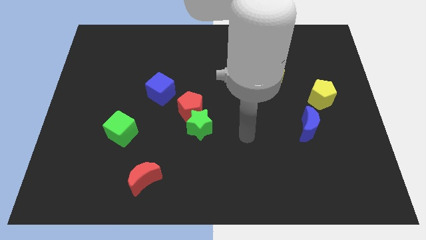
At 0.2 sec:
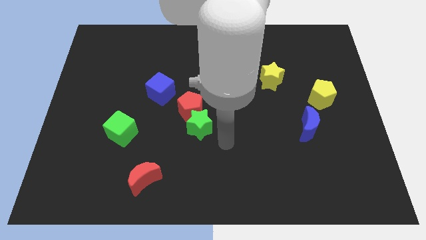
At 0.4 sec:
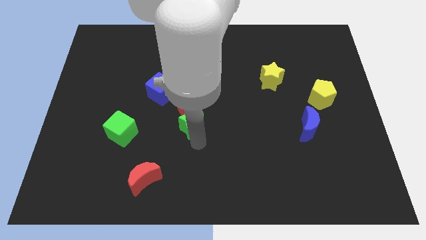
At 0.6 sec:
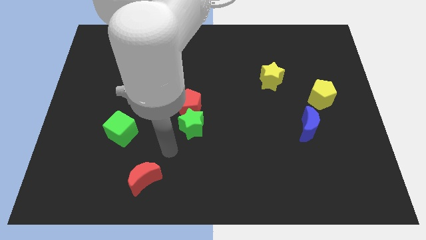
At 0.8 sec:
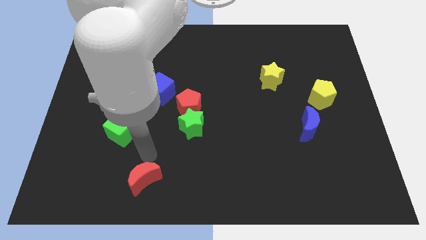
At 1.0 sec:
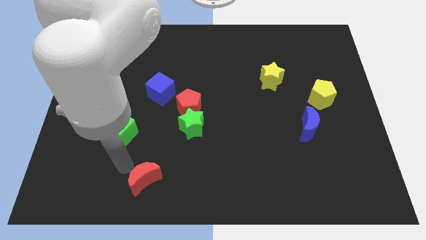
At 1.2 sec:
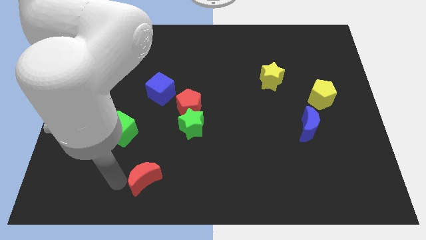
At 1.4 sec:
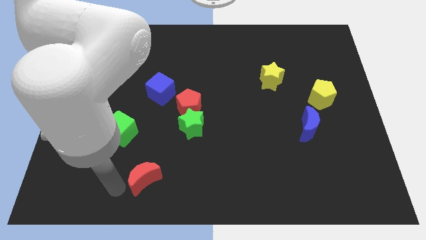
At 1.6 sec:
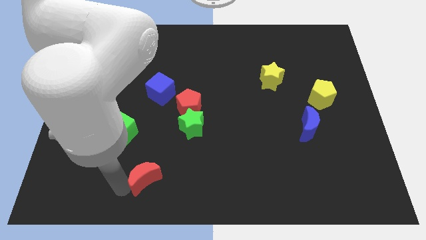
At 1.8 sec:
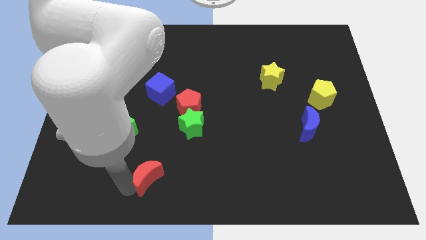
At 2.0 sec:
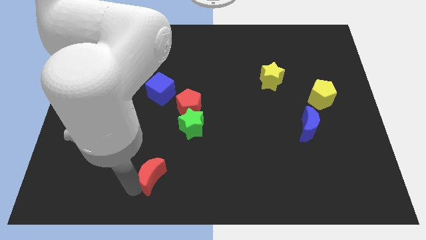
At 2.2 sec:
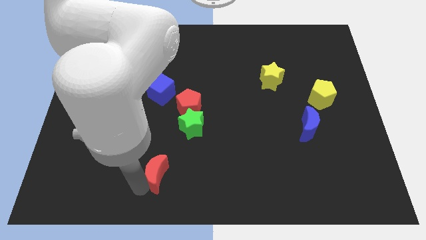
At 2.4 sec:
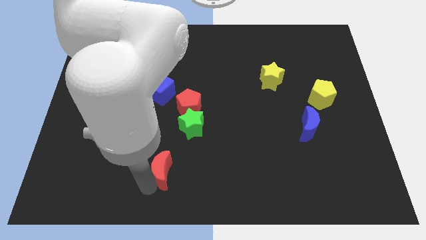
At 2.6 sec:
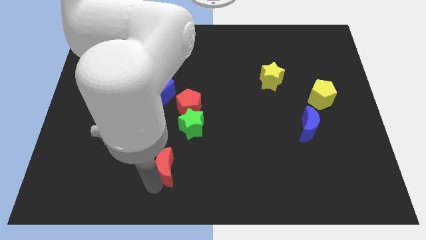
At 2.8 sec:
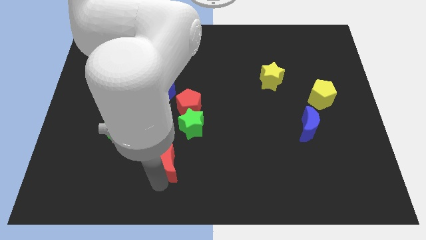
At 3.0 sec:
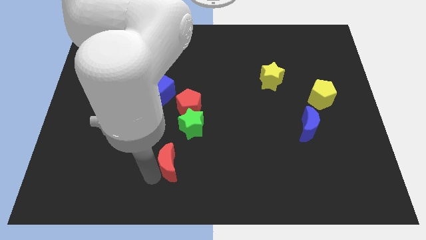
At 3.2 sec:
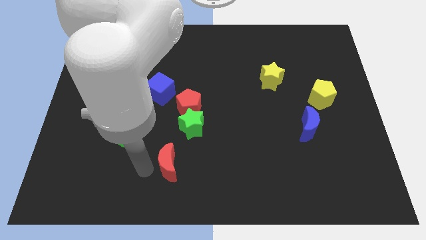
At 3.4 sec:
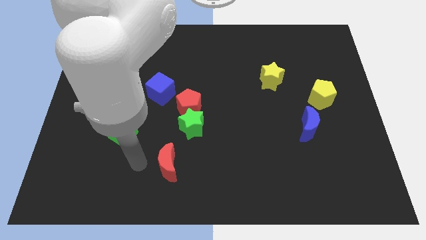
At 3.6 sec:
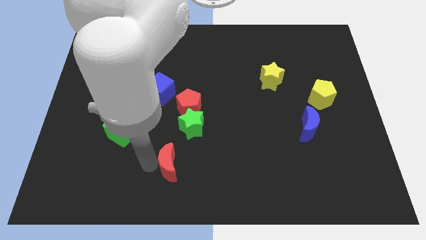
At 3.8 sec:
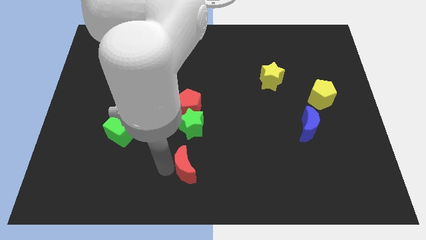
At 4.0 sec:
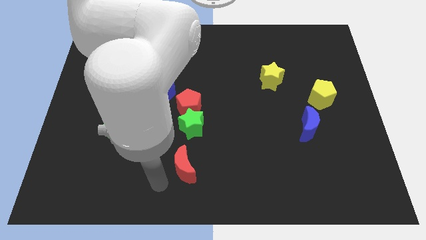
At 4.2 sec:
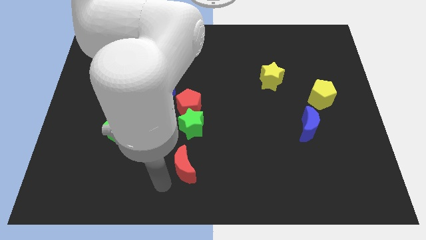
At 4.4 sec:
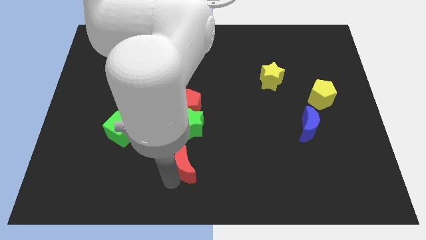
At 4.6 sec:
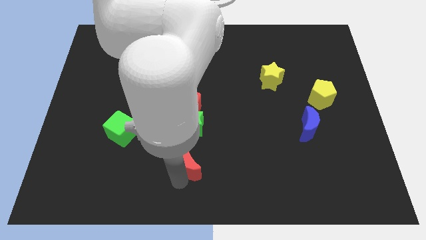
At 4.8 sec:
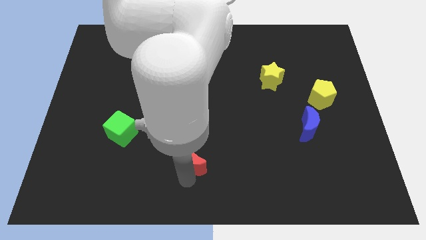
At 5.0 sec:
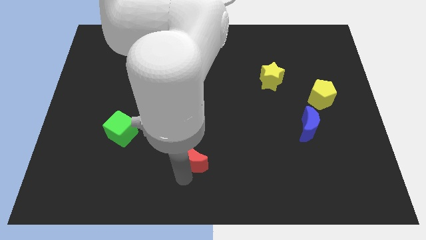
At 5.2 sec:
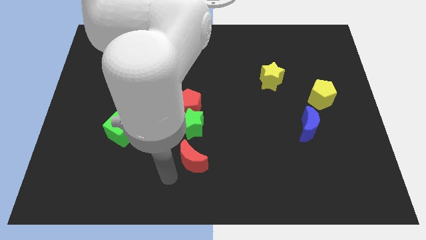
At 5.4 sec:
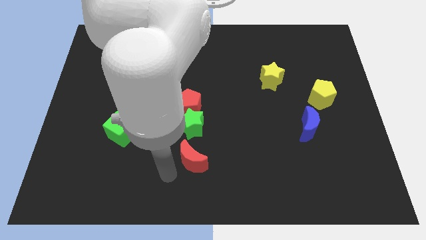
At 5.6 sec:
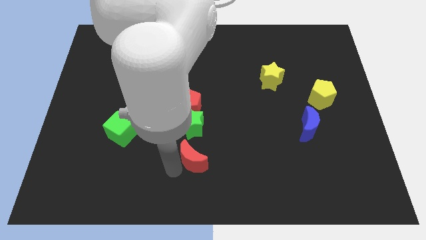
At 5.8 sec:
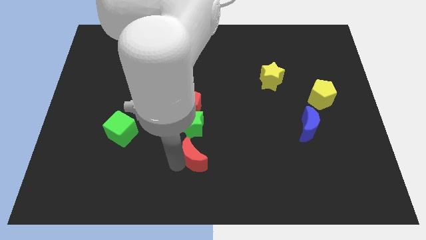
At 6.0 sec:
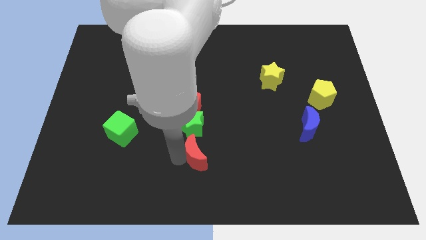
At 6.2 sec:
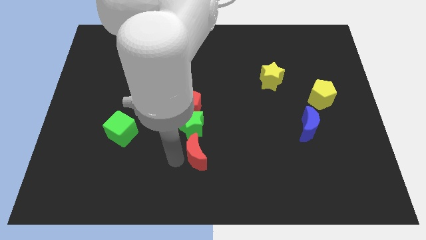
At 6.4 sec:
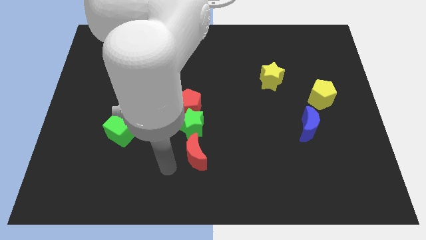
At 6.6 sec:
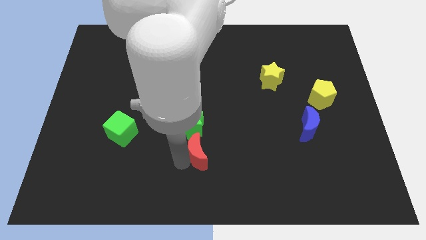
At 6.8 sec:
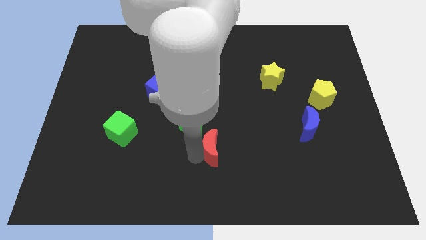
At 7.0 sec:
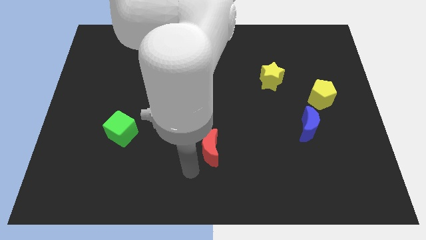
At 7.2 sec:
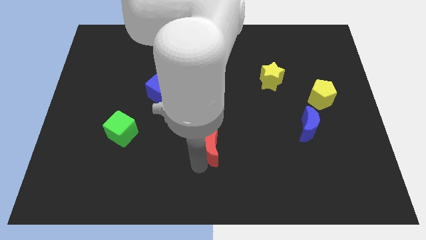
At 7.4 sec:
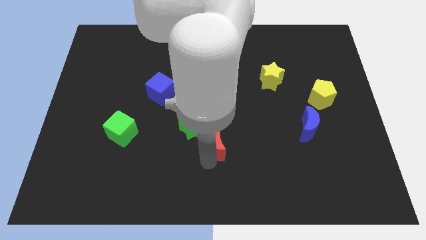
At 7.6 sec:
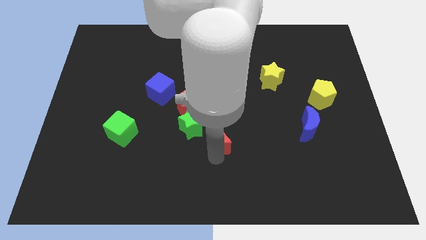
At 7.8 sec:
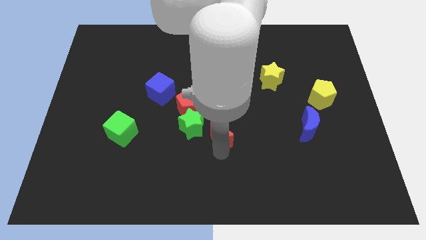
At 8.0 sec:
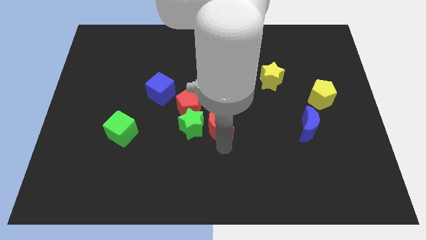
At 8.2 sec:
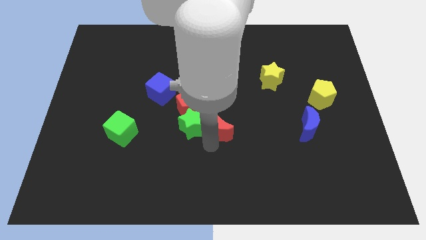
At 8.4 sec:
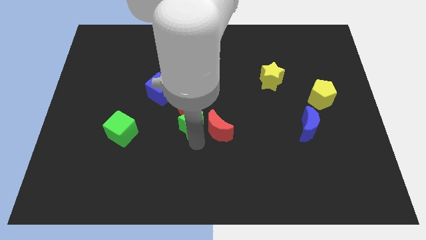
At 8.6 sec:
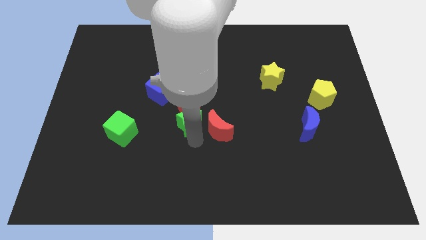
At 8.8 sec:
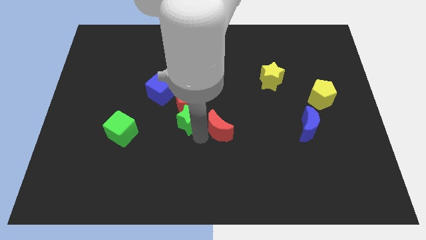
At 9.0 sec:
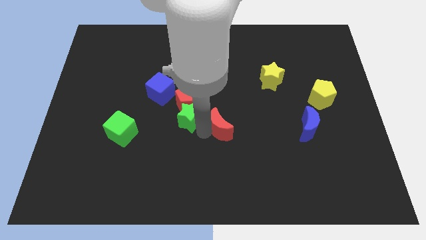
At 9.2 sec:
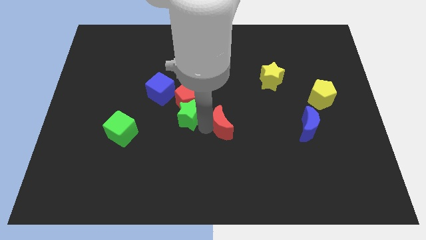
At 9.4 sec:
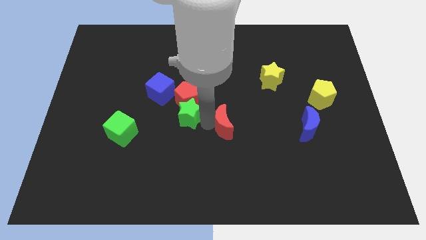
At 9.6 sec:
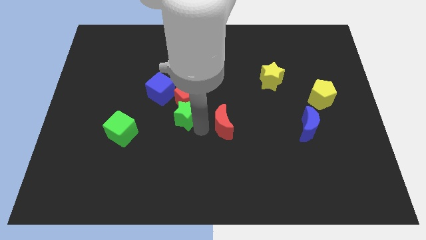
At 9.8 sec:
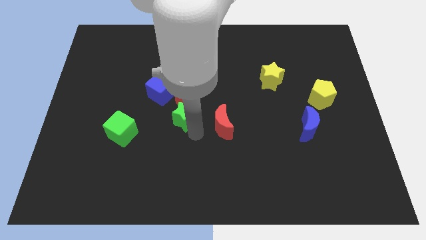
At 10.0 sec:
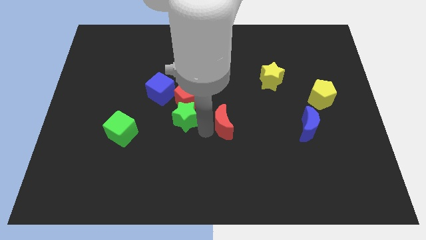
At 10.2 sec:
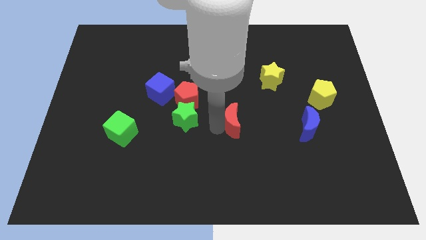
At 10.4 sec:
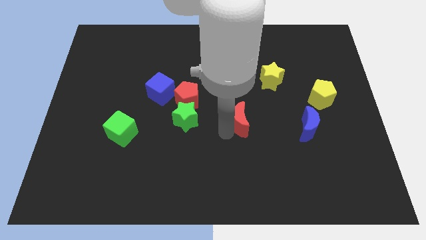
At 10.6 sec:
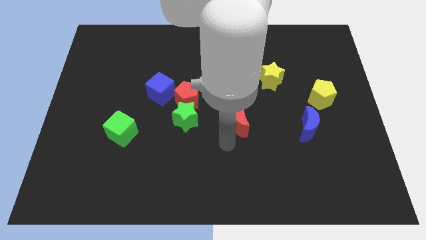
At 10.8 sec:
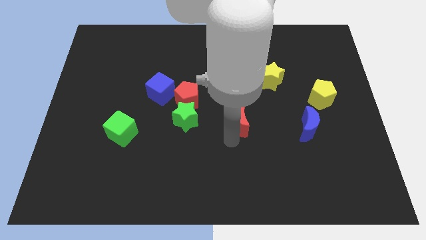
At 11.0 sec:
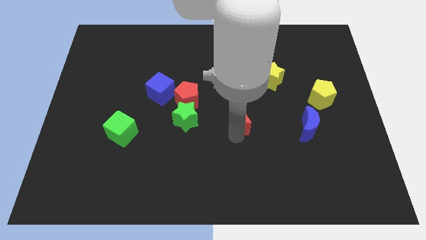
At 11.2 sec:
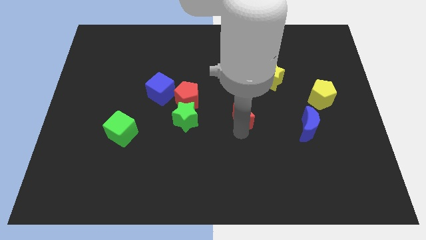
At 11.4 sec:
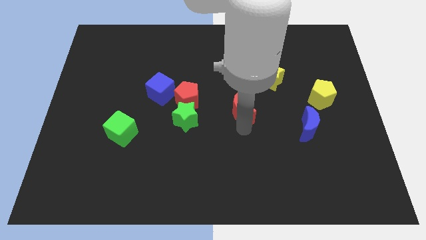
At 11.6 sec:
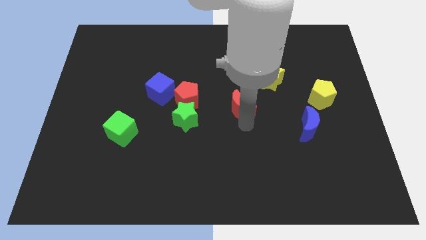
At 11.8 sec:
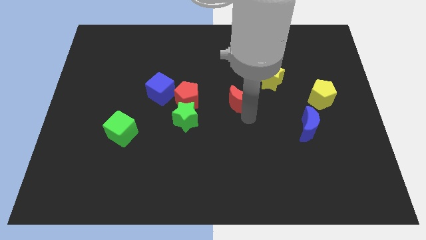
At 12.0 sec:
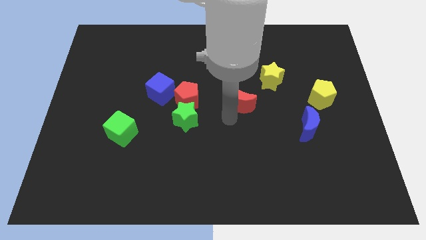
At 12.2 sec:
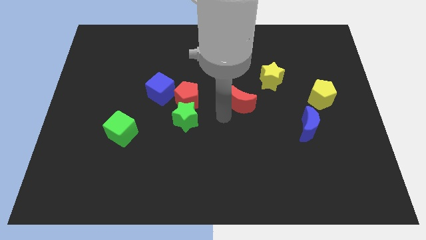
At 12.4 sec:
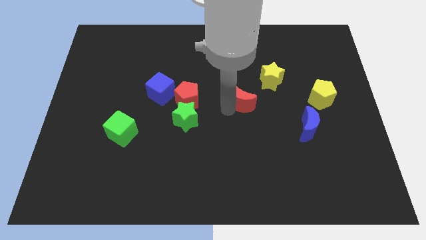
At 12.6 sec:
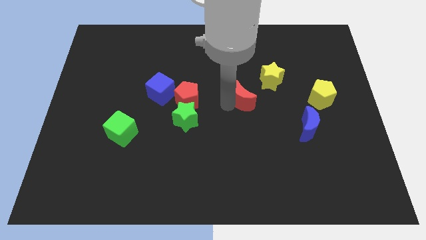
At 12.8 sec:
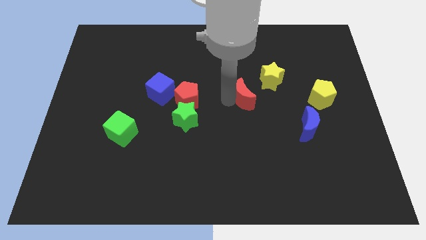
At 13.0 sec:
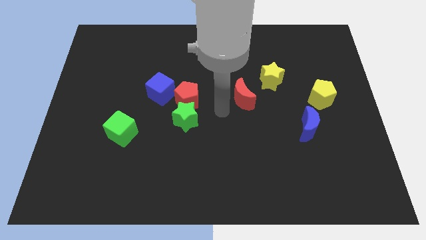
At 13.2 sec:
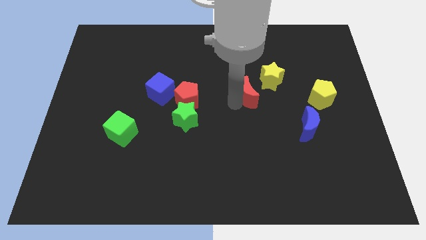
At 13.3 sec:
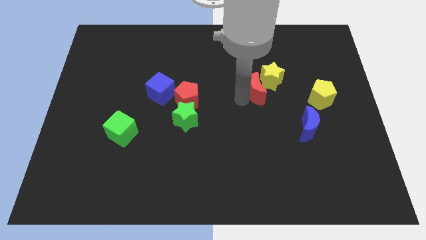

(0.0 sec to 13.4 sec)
push the red moon next to the yellow star

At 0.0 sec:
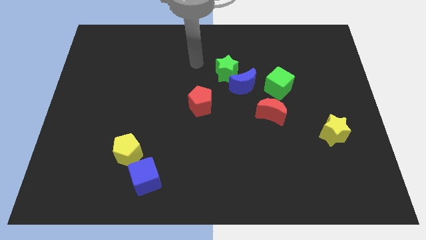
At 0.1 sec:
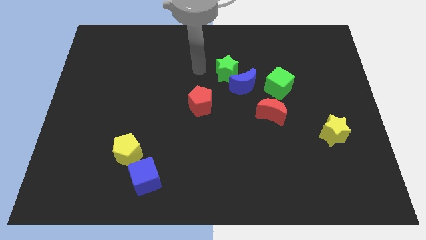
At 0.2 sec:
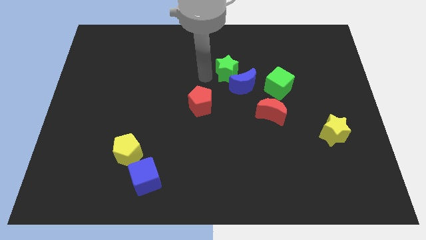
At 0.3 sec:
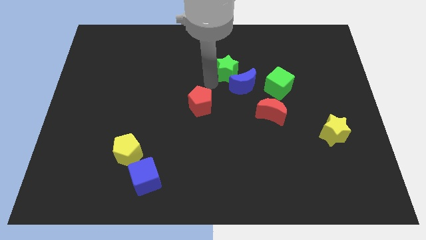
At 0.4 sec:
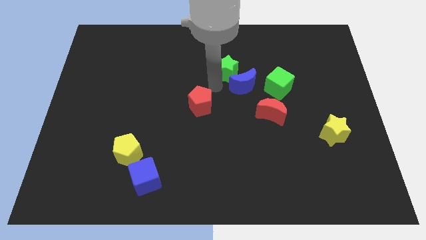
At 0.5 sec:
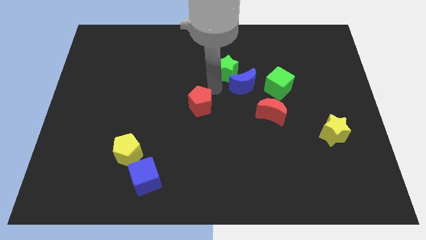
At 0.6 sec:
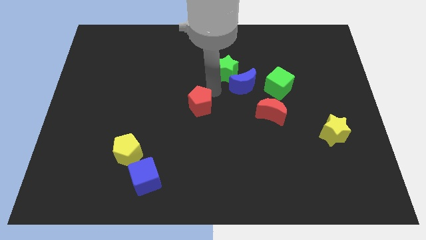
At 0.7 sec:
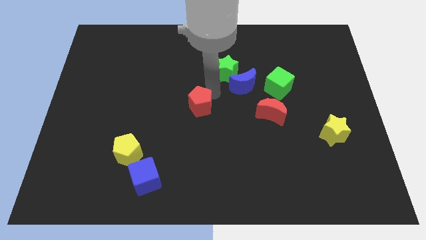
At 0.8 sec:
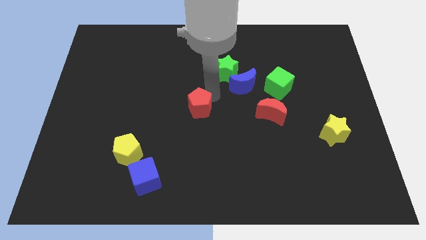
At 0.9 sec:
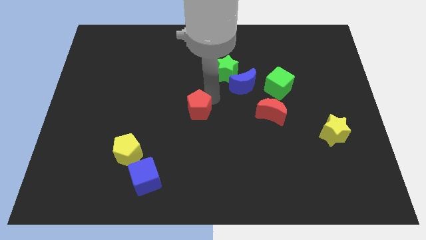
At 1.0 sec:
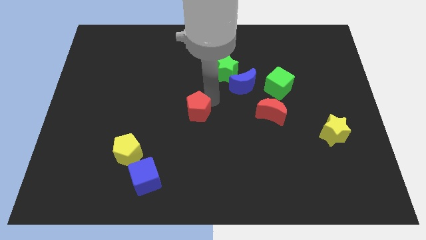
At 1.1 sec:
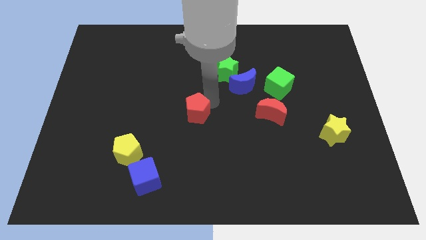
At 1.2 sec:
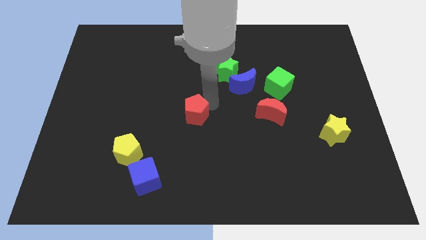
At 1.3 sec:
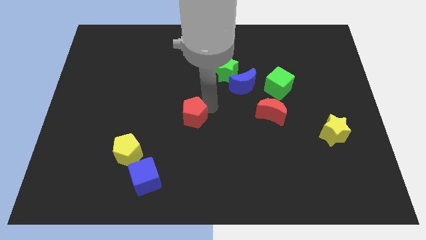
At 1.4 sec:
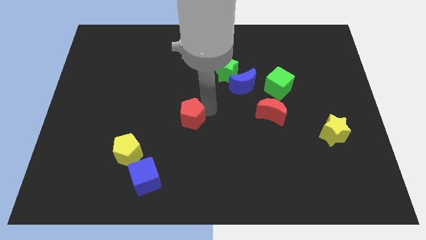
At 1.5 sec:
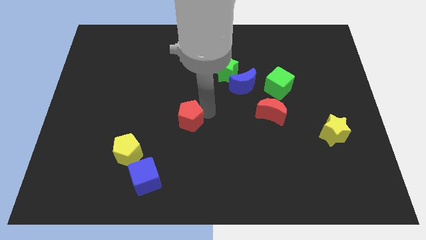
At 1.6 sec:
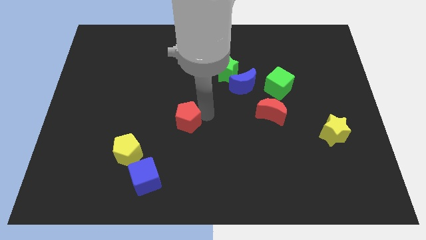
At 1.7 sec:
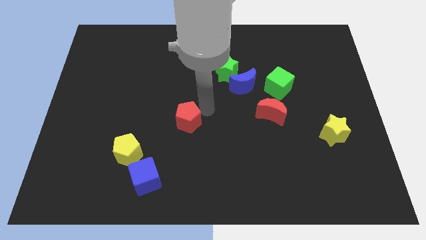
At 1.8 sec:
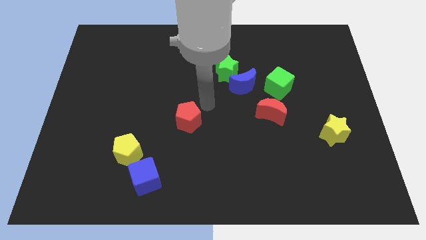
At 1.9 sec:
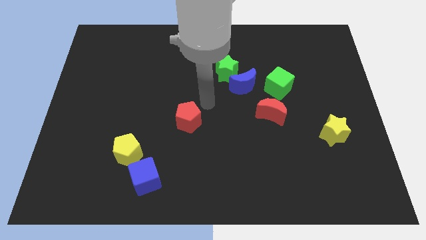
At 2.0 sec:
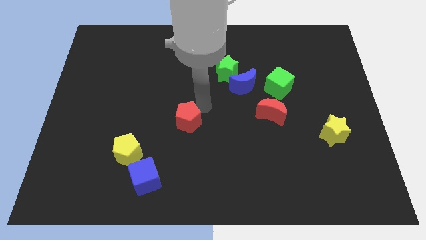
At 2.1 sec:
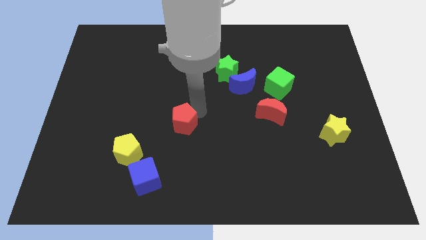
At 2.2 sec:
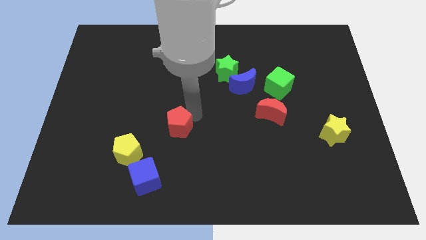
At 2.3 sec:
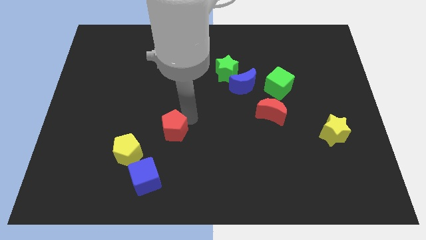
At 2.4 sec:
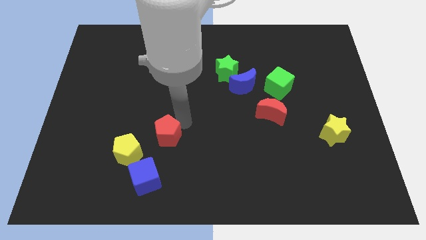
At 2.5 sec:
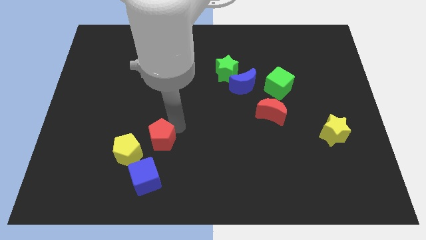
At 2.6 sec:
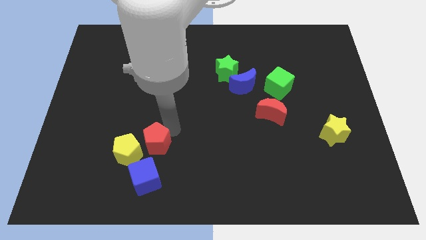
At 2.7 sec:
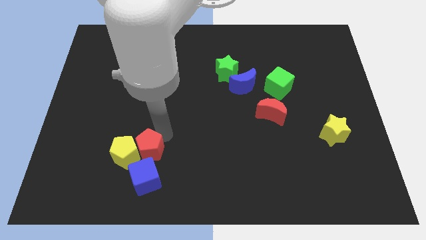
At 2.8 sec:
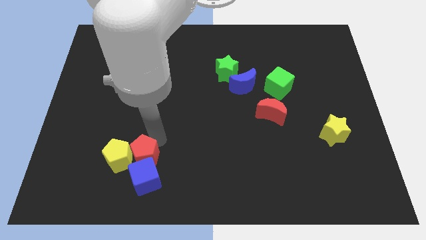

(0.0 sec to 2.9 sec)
push the red pentagon to the blue cube
